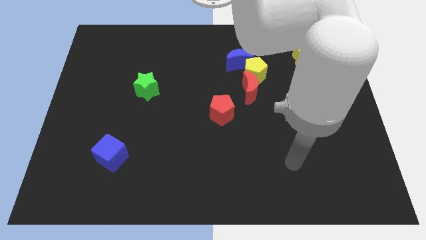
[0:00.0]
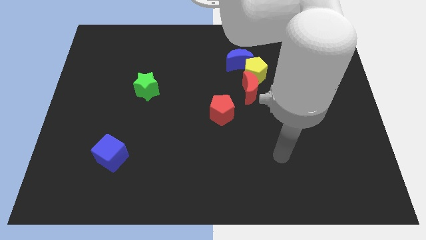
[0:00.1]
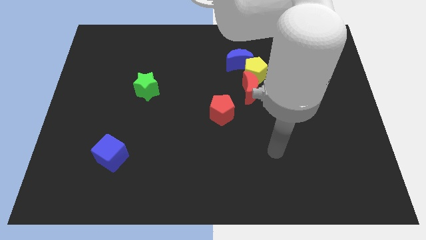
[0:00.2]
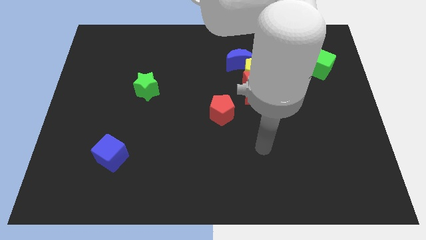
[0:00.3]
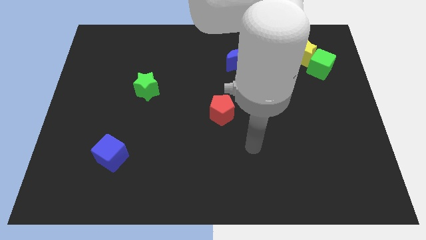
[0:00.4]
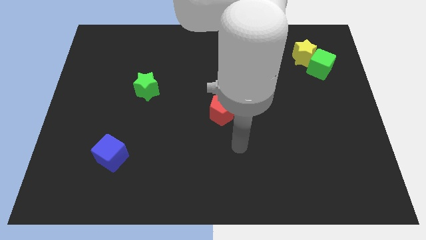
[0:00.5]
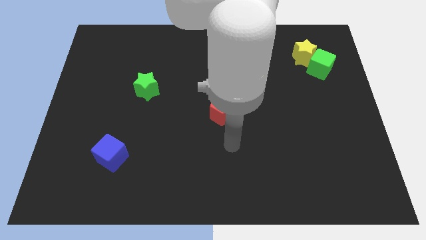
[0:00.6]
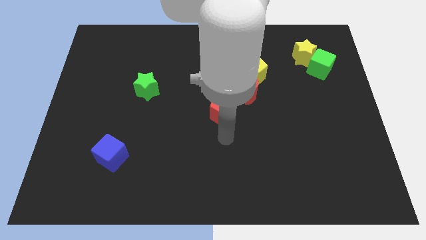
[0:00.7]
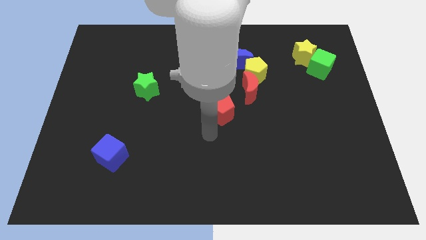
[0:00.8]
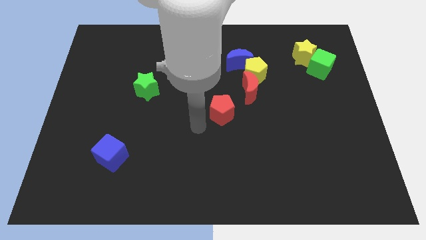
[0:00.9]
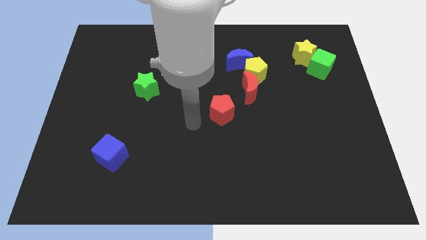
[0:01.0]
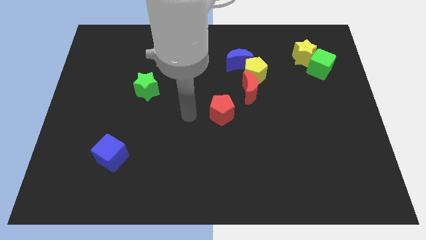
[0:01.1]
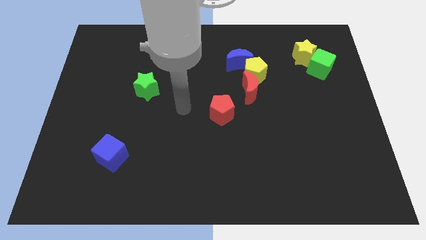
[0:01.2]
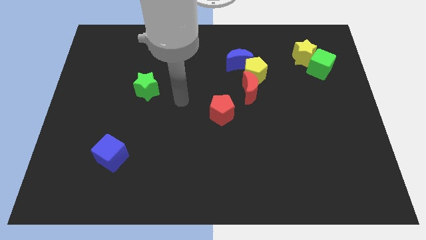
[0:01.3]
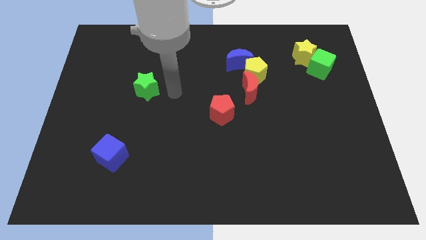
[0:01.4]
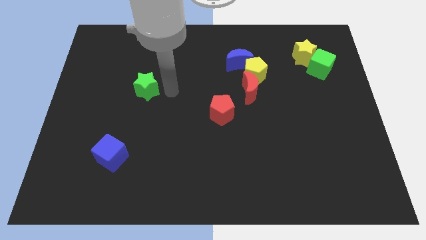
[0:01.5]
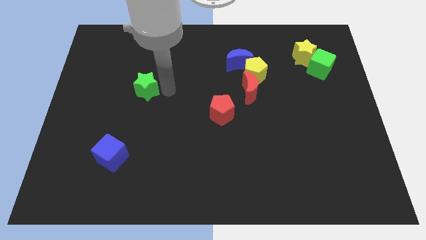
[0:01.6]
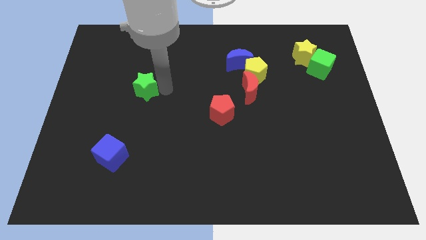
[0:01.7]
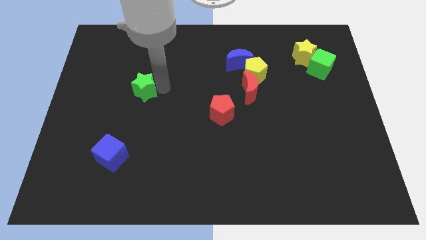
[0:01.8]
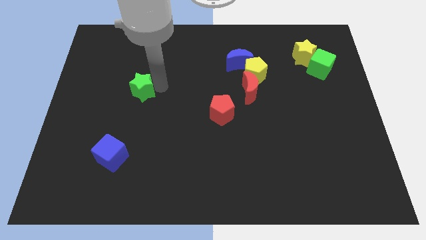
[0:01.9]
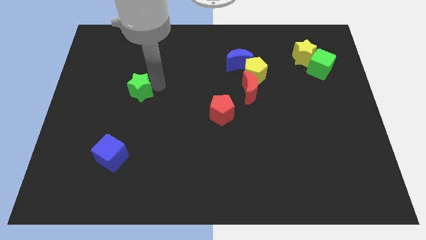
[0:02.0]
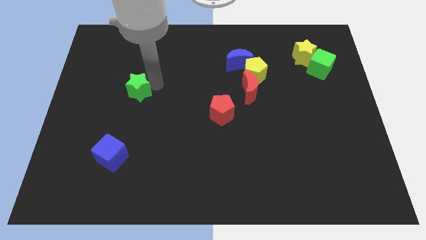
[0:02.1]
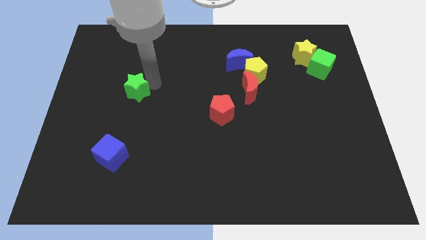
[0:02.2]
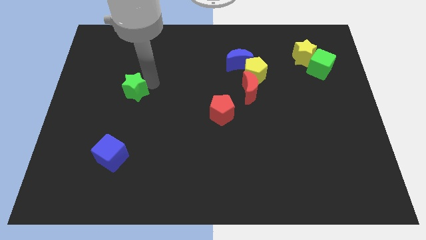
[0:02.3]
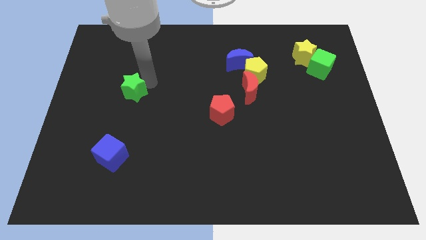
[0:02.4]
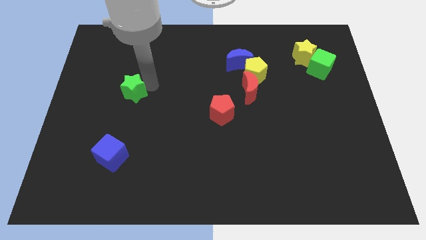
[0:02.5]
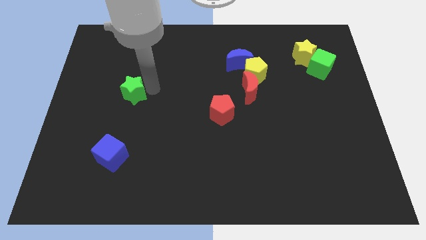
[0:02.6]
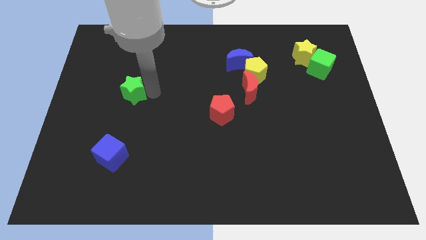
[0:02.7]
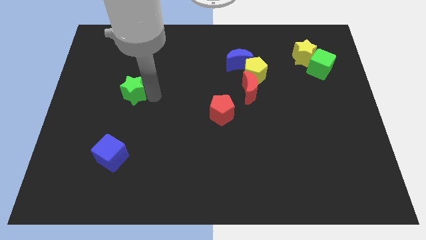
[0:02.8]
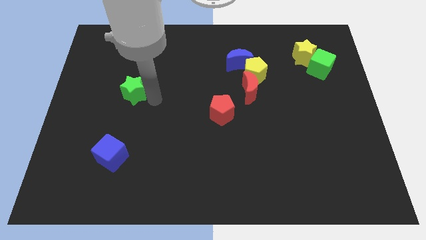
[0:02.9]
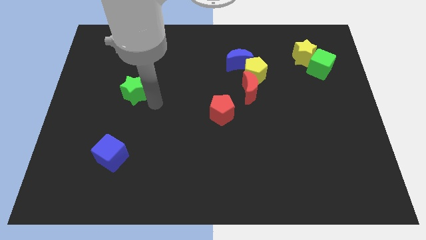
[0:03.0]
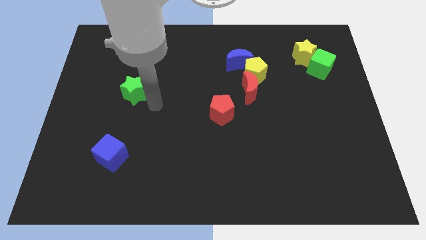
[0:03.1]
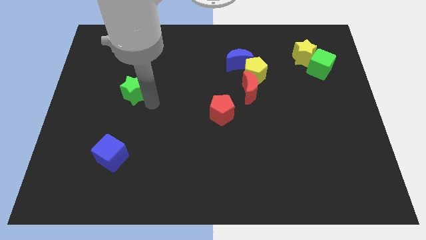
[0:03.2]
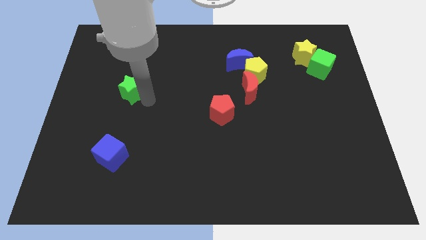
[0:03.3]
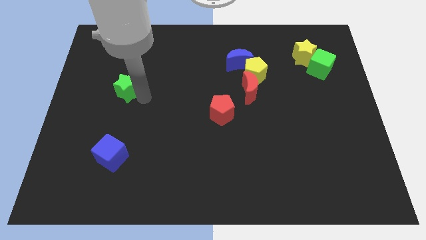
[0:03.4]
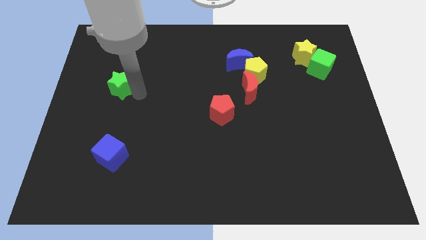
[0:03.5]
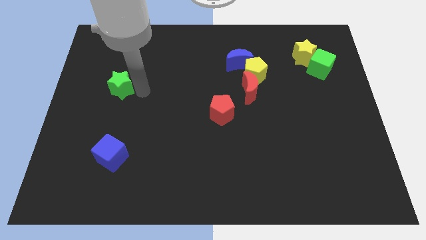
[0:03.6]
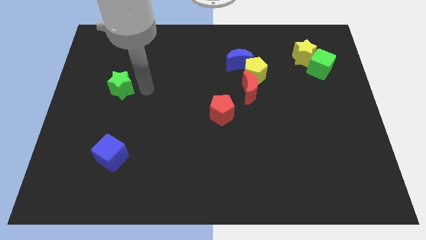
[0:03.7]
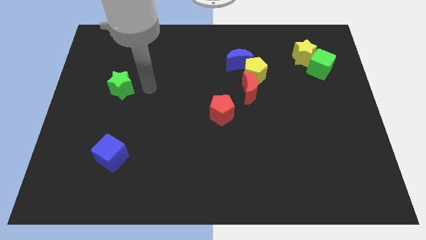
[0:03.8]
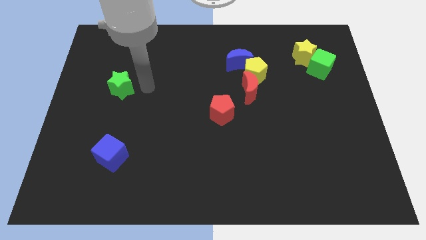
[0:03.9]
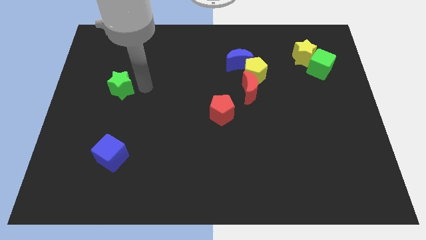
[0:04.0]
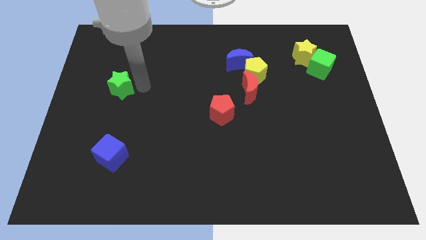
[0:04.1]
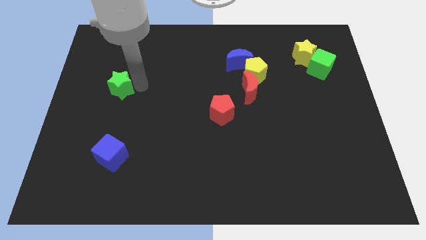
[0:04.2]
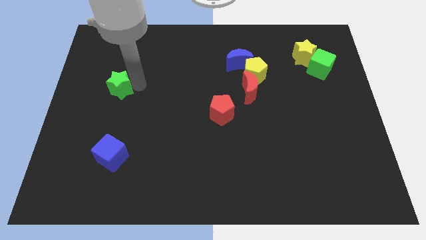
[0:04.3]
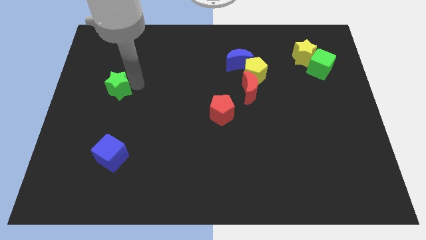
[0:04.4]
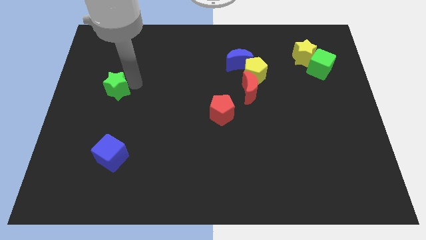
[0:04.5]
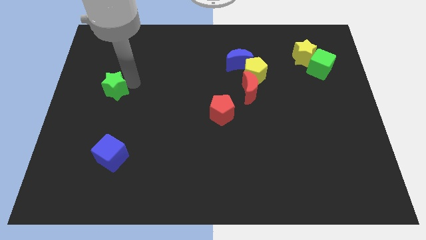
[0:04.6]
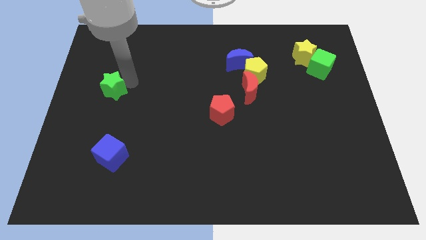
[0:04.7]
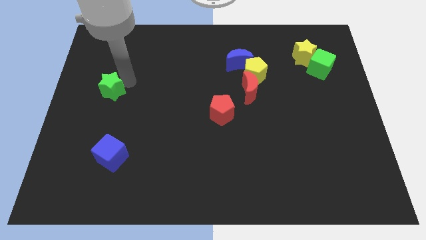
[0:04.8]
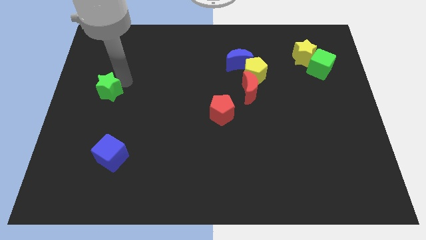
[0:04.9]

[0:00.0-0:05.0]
put the green star to the center left

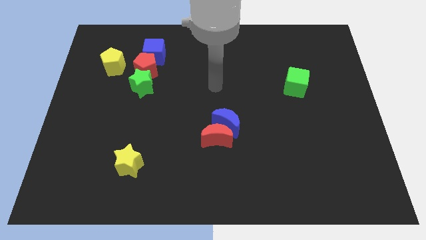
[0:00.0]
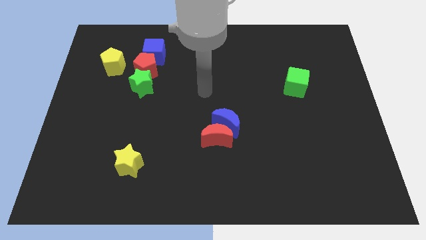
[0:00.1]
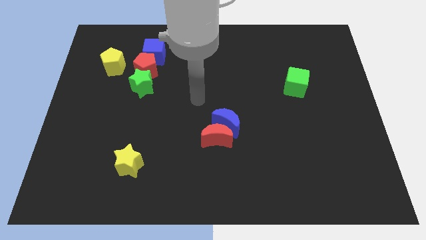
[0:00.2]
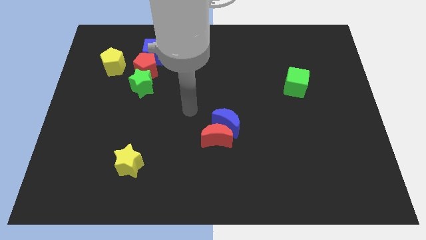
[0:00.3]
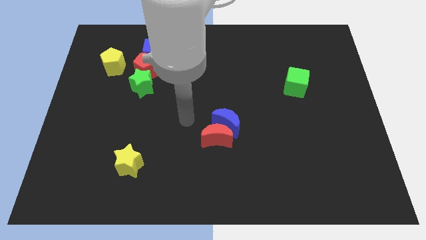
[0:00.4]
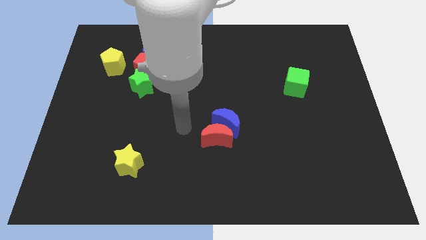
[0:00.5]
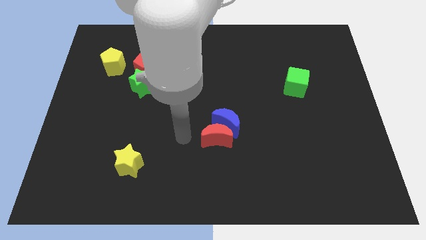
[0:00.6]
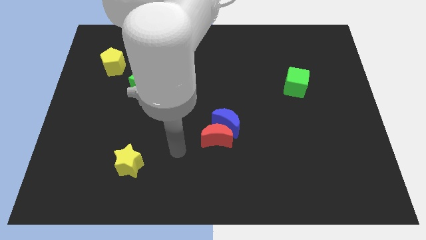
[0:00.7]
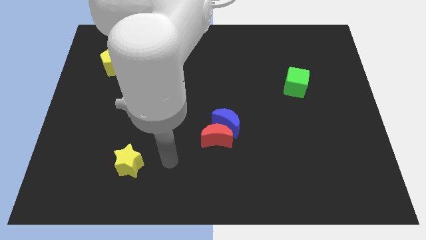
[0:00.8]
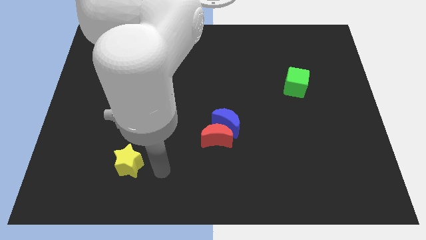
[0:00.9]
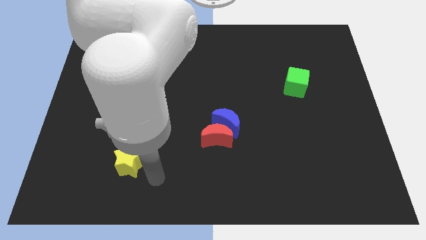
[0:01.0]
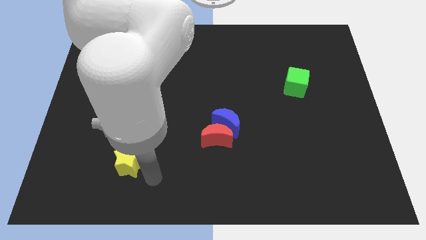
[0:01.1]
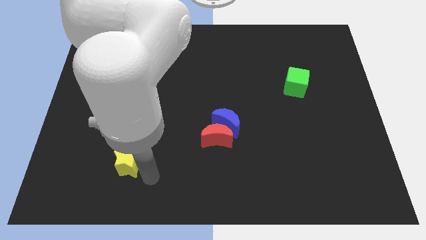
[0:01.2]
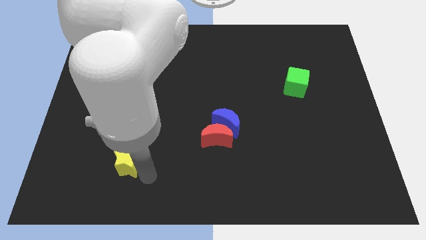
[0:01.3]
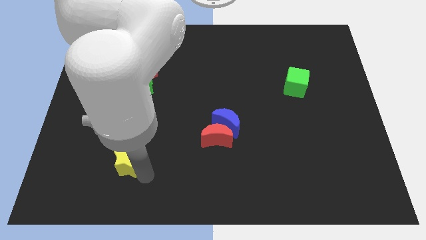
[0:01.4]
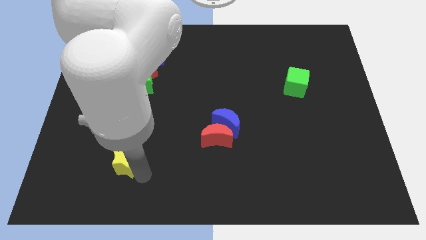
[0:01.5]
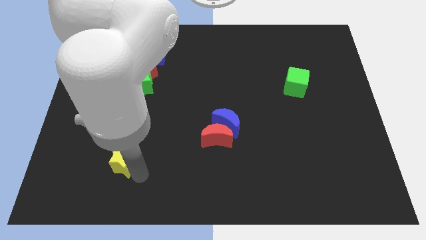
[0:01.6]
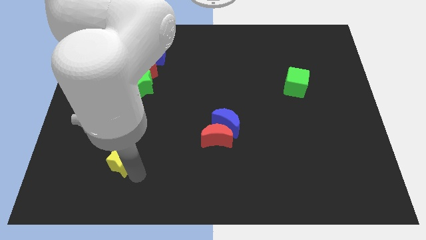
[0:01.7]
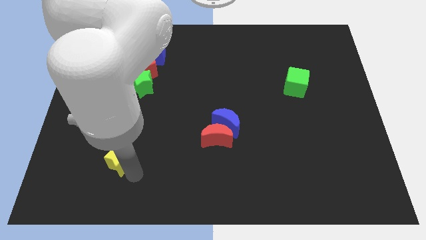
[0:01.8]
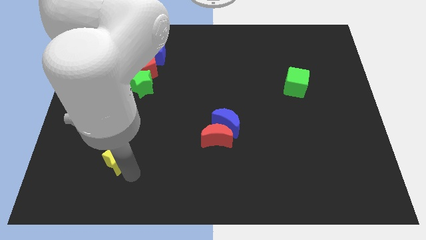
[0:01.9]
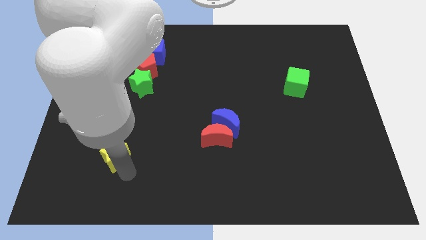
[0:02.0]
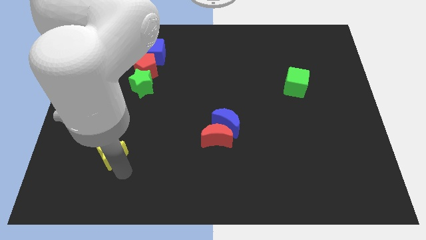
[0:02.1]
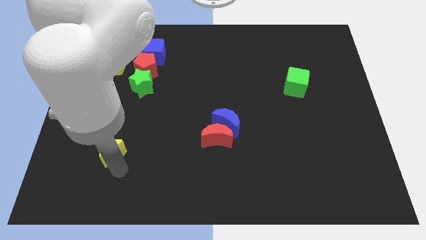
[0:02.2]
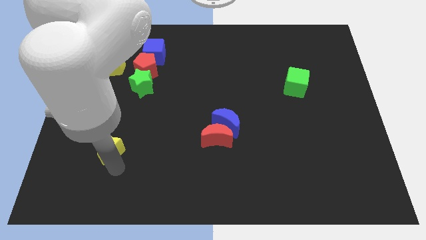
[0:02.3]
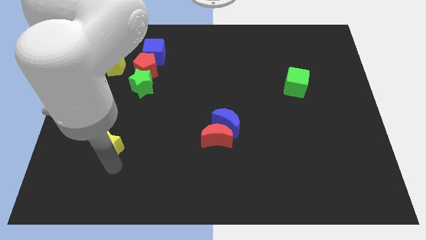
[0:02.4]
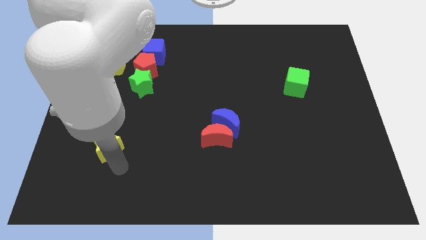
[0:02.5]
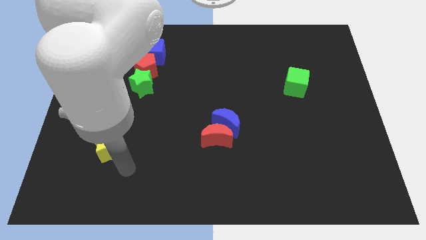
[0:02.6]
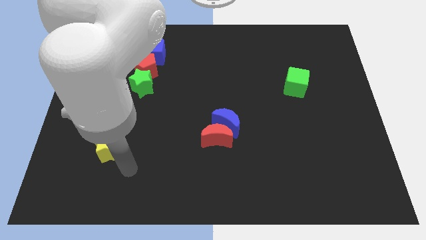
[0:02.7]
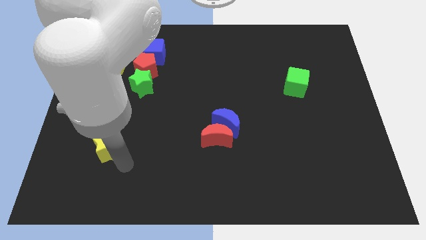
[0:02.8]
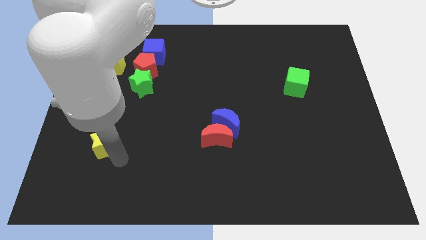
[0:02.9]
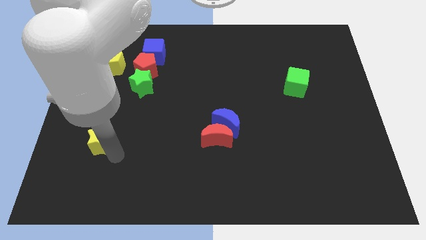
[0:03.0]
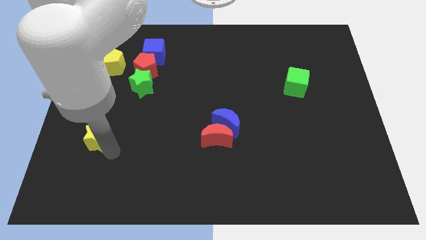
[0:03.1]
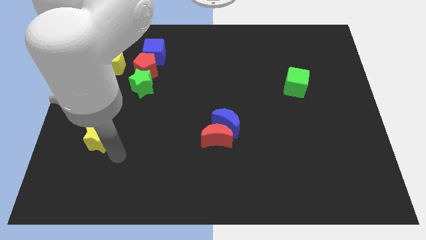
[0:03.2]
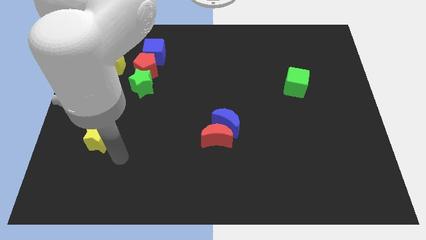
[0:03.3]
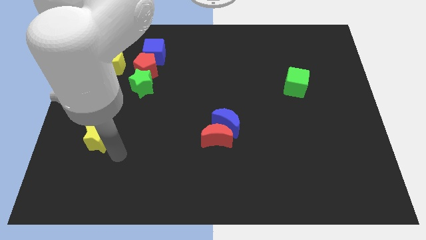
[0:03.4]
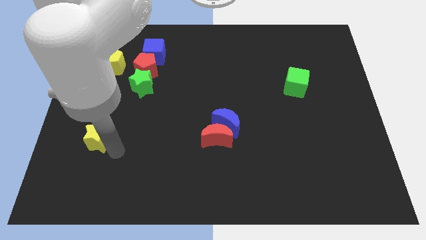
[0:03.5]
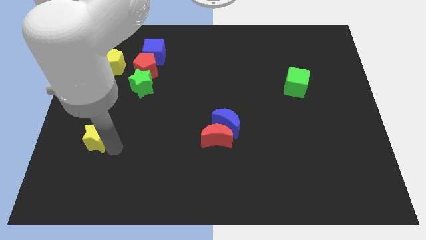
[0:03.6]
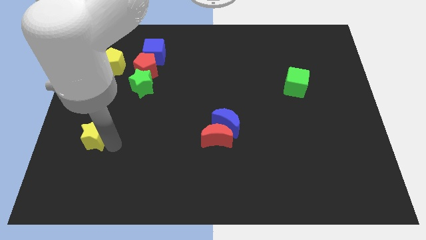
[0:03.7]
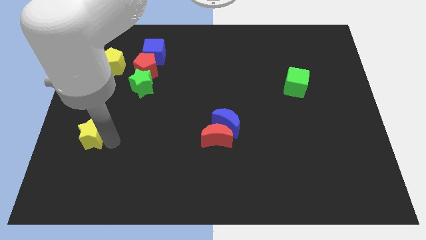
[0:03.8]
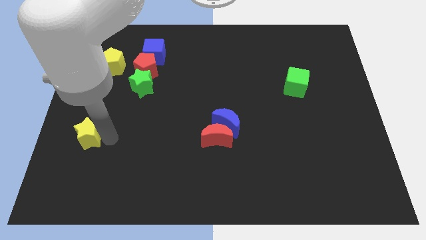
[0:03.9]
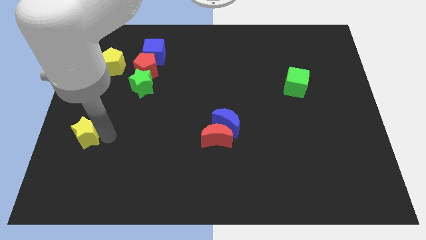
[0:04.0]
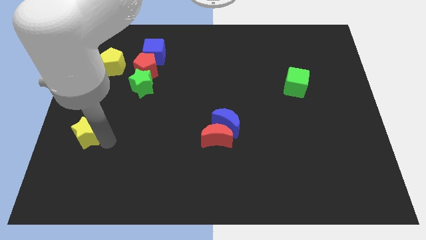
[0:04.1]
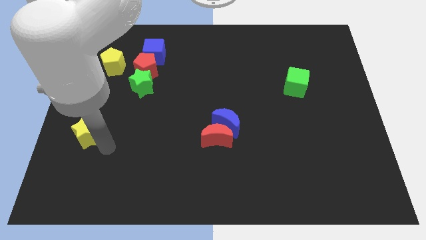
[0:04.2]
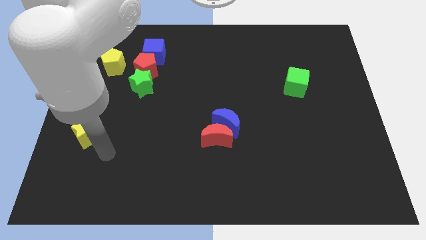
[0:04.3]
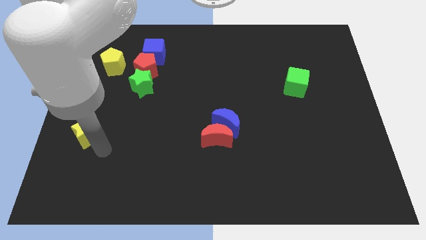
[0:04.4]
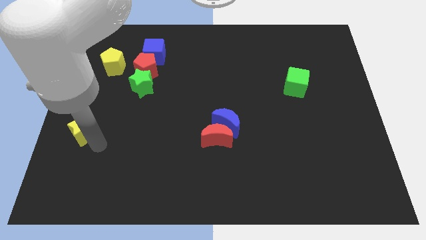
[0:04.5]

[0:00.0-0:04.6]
put the yellow star to the center left
